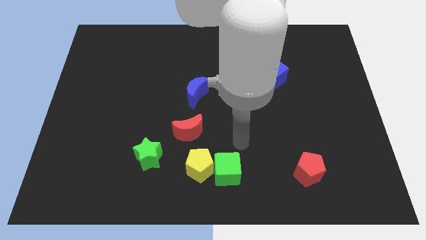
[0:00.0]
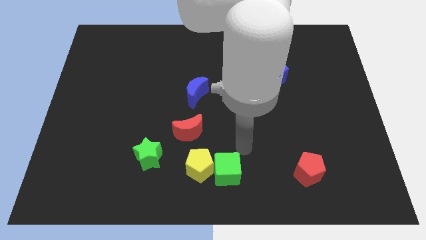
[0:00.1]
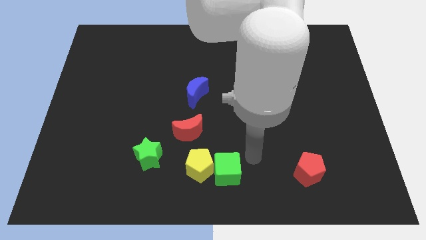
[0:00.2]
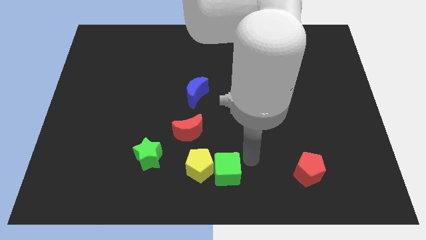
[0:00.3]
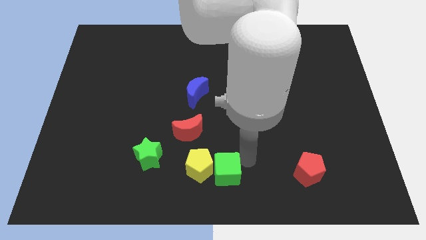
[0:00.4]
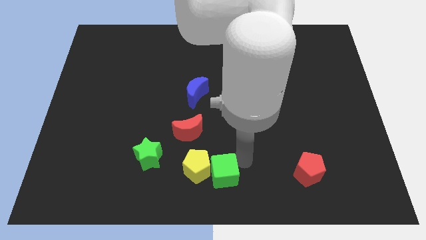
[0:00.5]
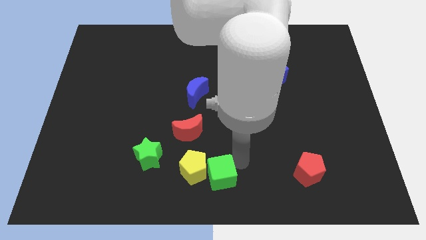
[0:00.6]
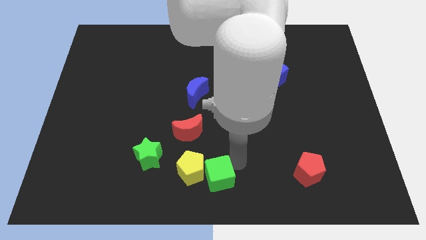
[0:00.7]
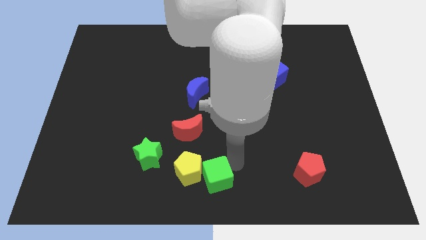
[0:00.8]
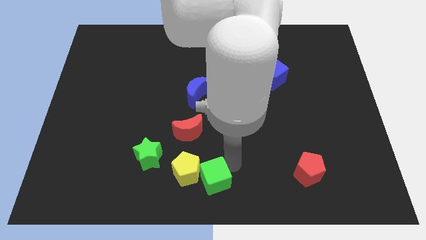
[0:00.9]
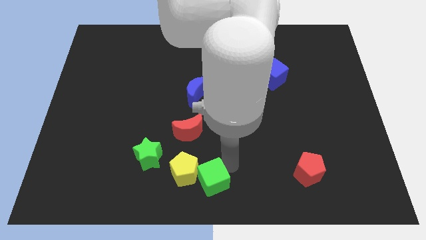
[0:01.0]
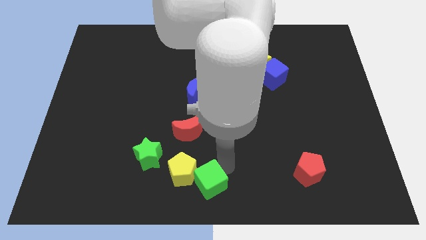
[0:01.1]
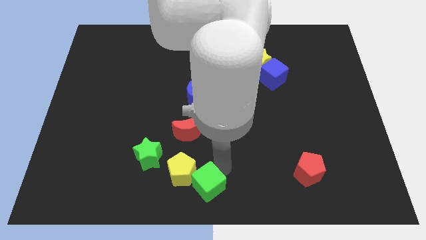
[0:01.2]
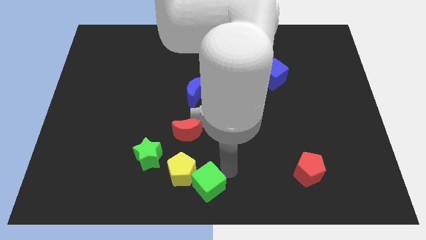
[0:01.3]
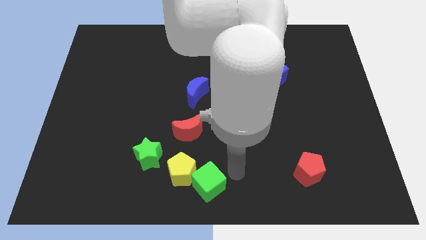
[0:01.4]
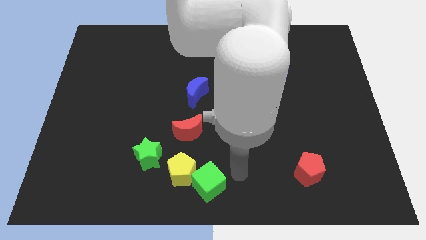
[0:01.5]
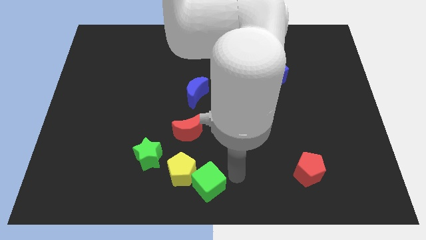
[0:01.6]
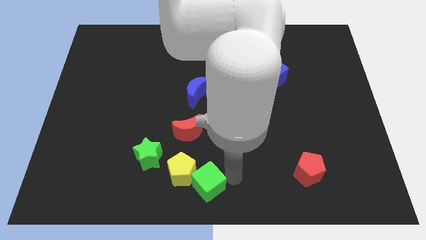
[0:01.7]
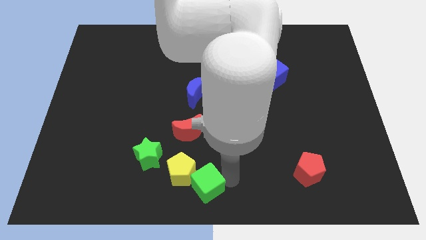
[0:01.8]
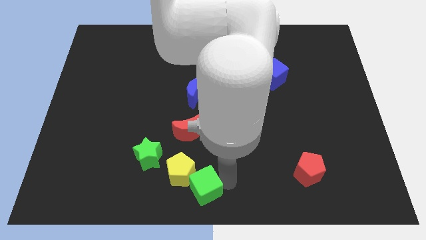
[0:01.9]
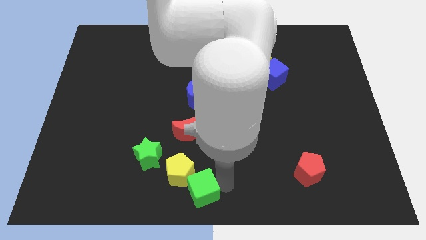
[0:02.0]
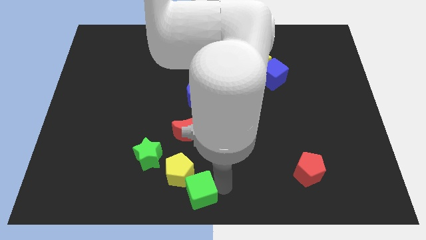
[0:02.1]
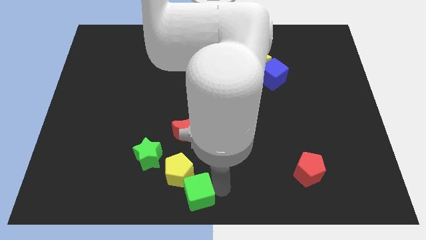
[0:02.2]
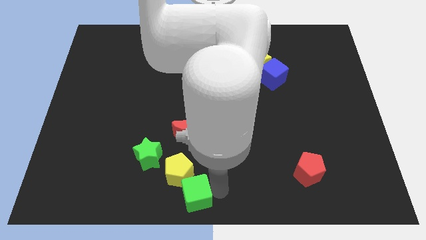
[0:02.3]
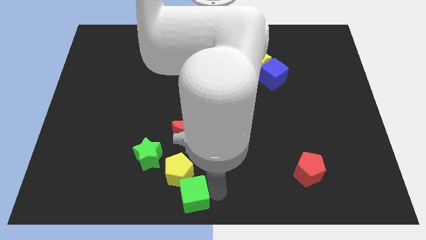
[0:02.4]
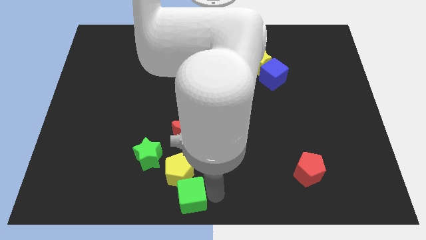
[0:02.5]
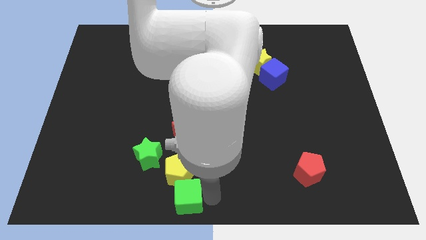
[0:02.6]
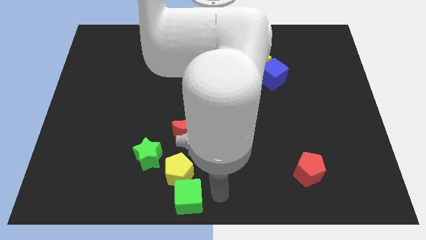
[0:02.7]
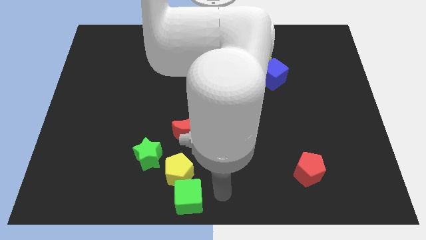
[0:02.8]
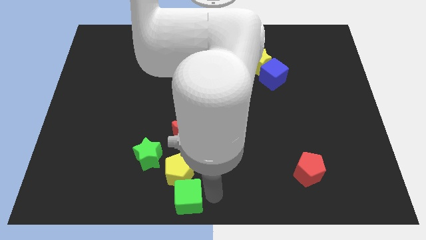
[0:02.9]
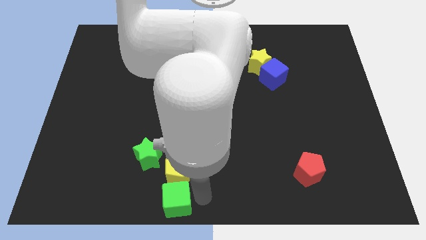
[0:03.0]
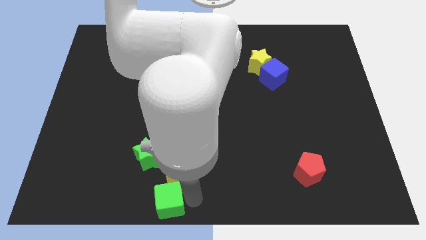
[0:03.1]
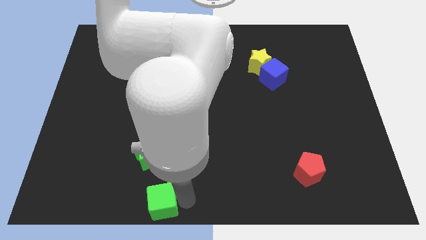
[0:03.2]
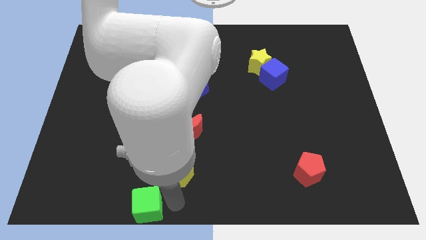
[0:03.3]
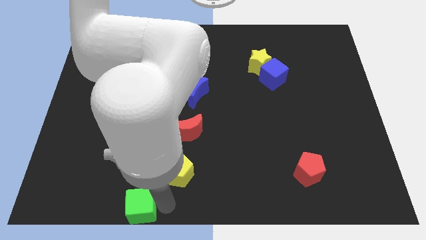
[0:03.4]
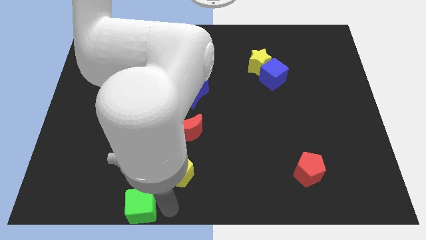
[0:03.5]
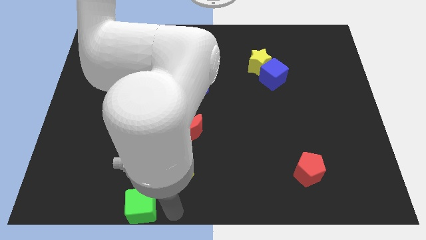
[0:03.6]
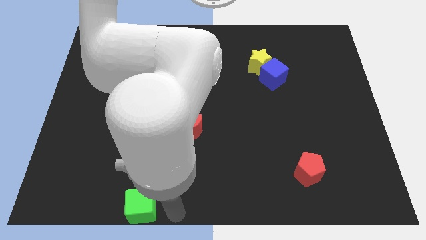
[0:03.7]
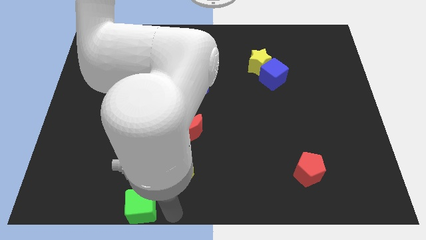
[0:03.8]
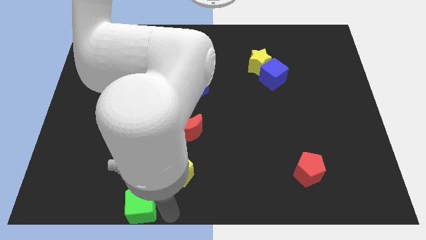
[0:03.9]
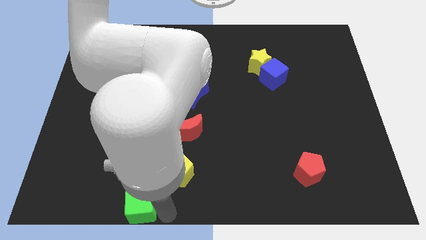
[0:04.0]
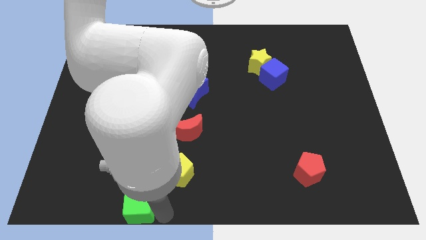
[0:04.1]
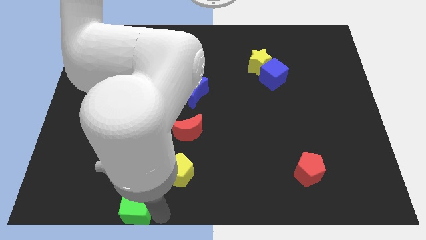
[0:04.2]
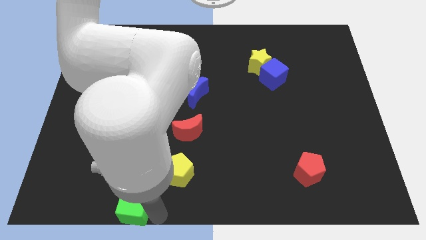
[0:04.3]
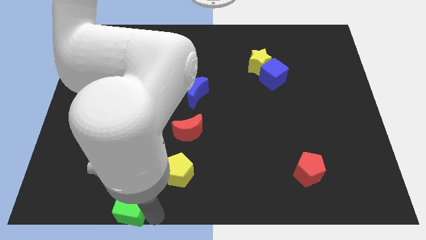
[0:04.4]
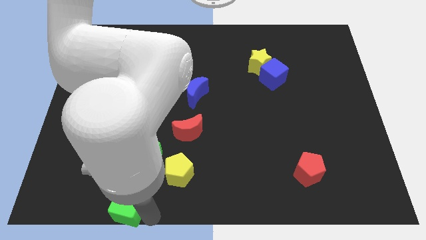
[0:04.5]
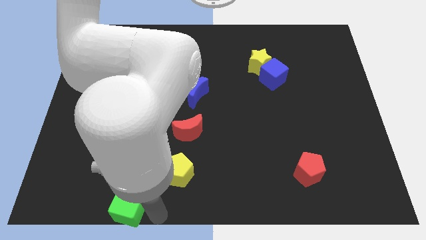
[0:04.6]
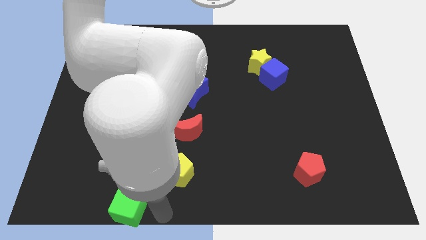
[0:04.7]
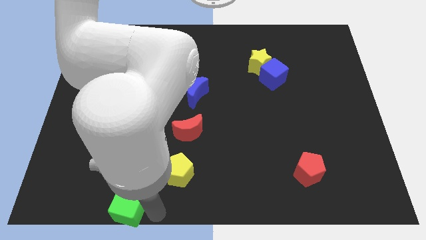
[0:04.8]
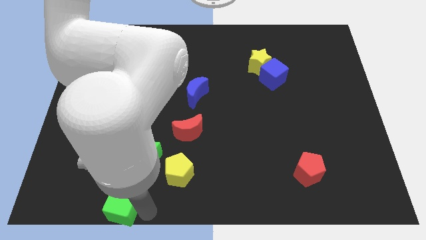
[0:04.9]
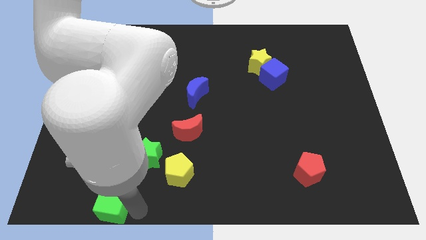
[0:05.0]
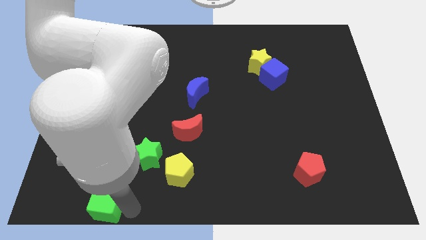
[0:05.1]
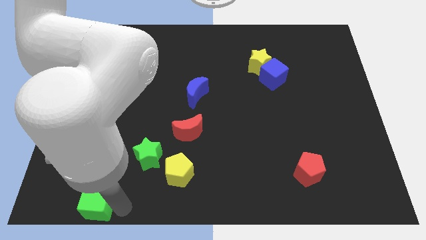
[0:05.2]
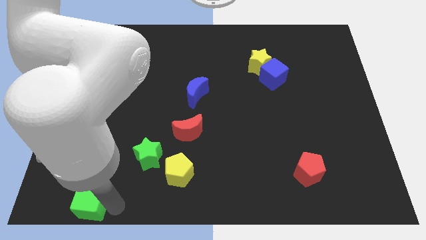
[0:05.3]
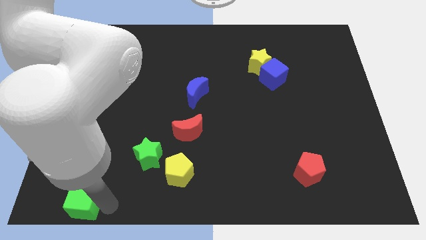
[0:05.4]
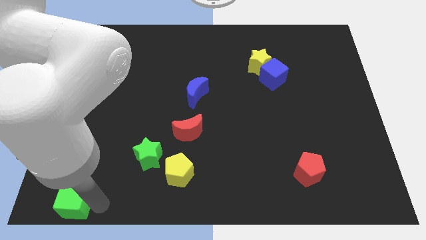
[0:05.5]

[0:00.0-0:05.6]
put the green cube to the bottom left

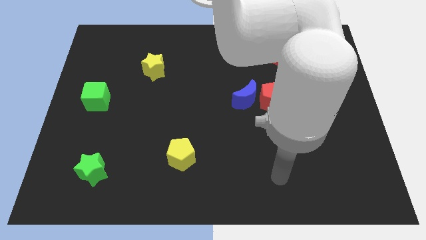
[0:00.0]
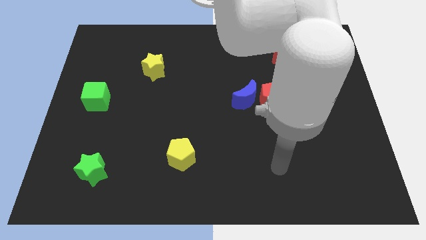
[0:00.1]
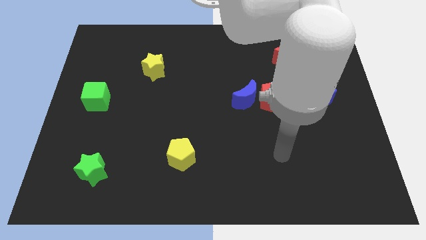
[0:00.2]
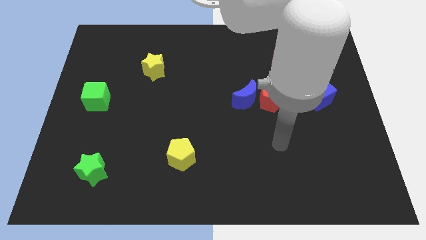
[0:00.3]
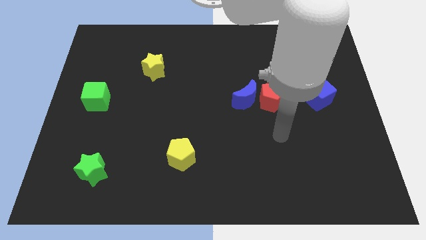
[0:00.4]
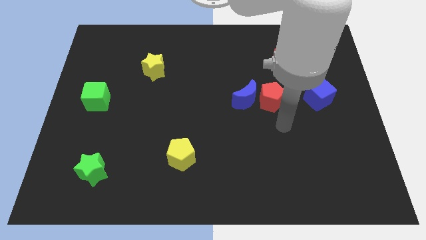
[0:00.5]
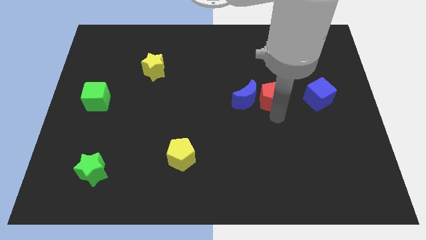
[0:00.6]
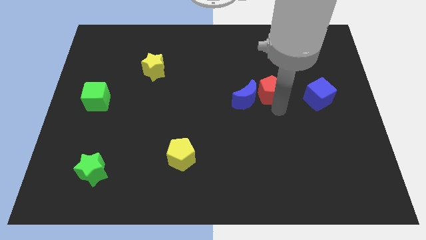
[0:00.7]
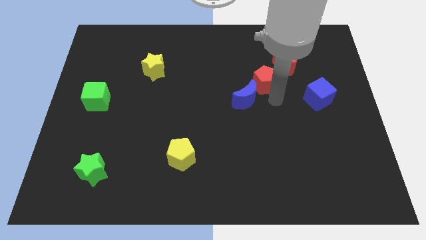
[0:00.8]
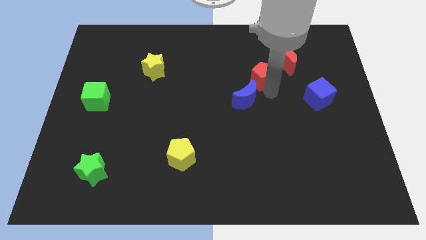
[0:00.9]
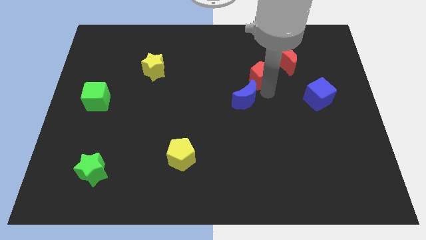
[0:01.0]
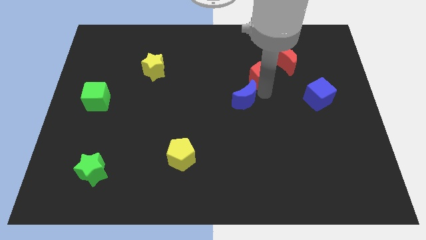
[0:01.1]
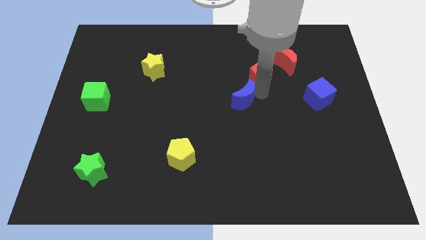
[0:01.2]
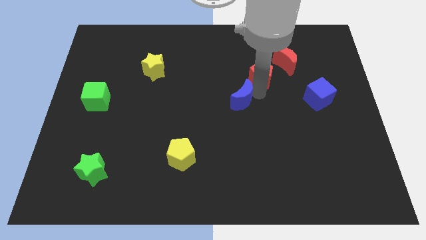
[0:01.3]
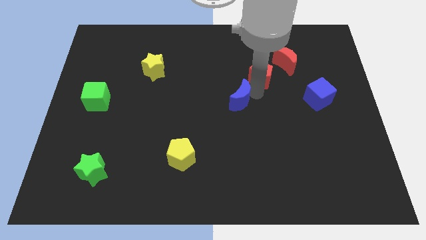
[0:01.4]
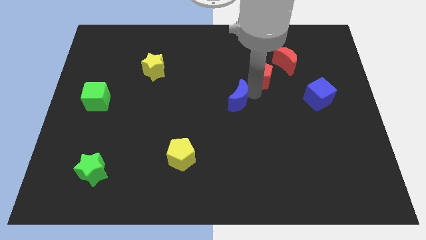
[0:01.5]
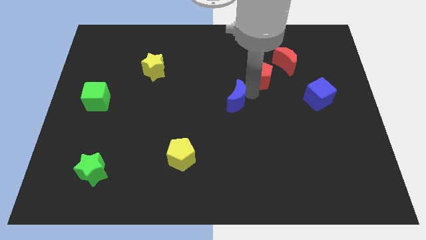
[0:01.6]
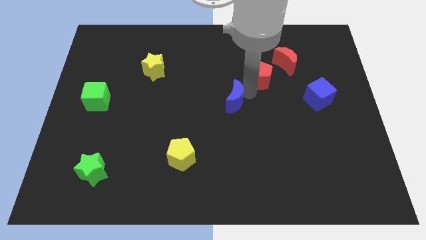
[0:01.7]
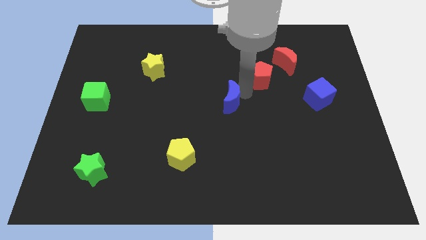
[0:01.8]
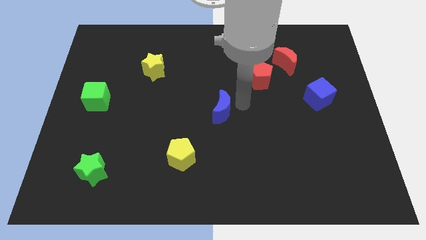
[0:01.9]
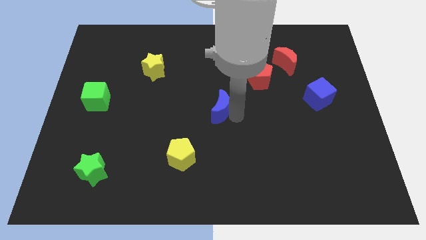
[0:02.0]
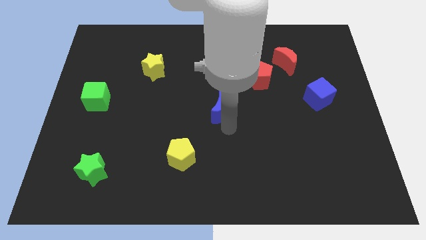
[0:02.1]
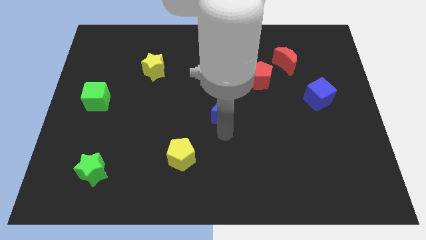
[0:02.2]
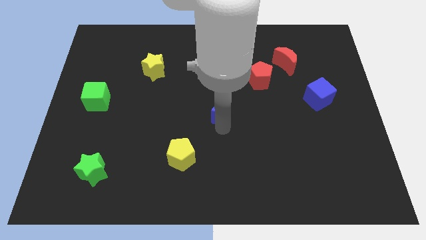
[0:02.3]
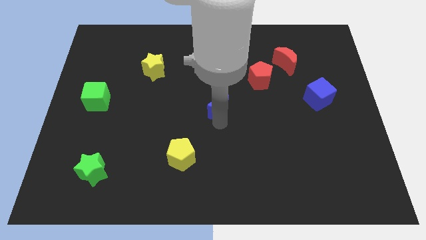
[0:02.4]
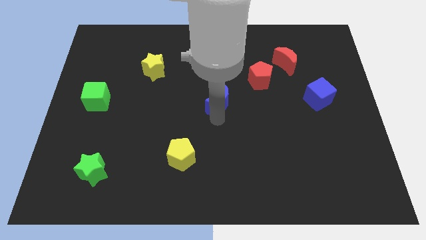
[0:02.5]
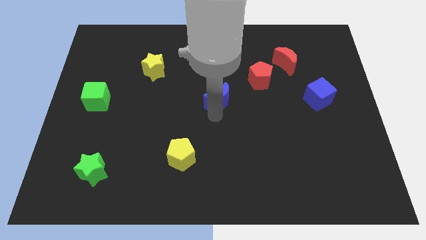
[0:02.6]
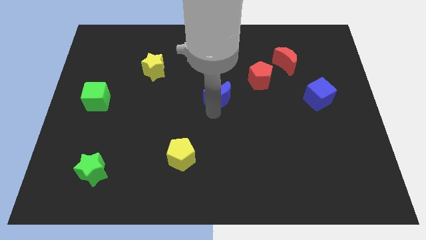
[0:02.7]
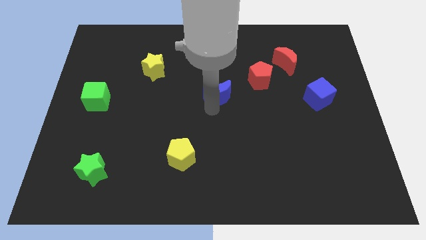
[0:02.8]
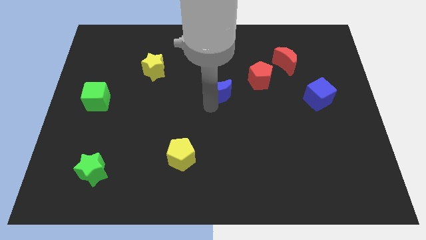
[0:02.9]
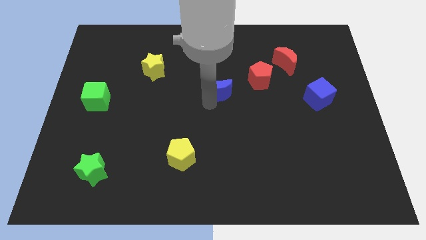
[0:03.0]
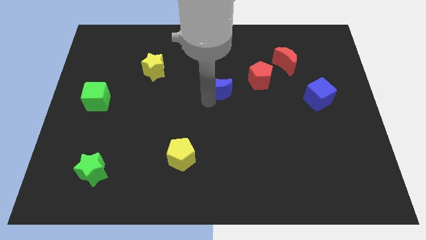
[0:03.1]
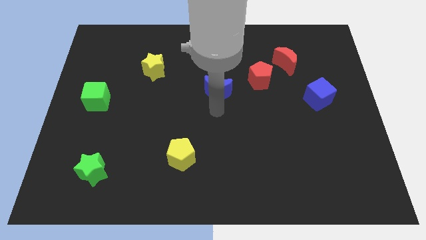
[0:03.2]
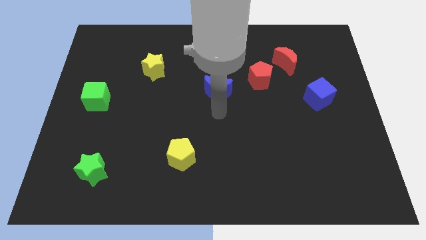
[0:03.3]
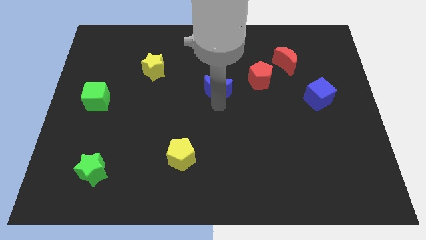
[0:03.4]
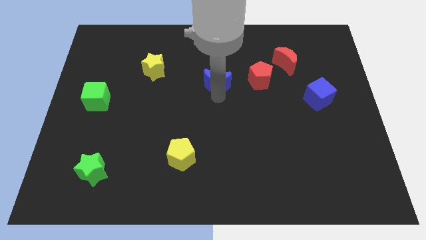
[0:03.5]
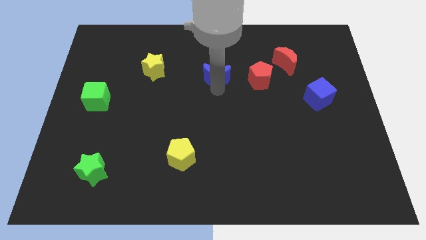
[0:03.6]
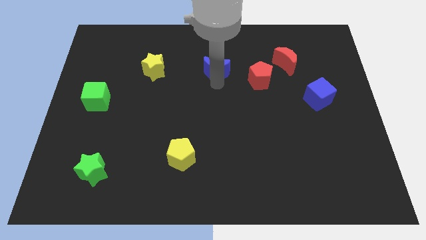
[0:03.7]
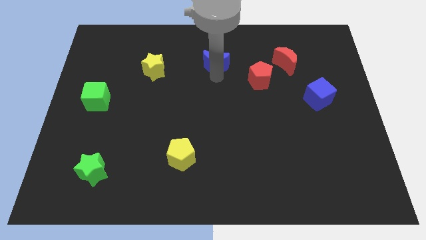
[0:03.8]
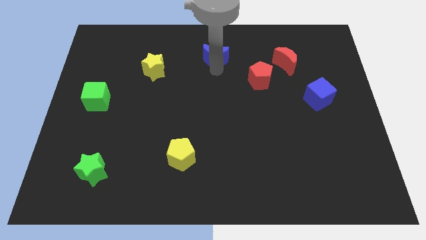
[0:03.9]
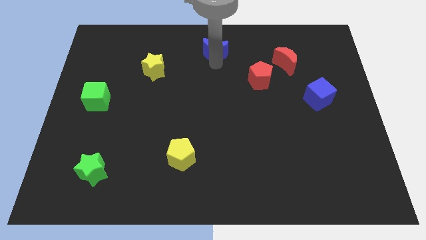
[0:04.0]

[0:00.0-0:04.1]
push the blue moon to the top
